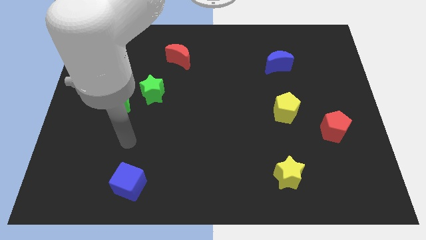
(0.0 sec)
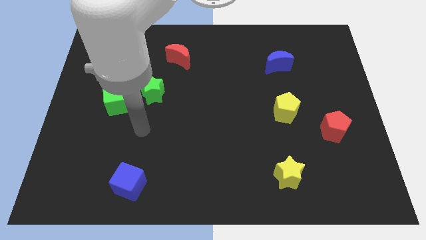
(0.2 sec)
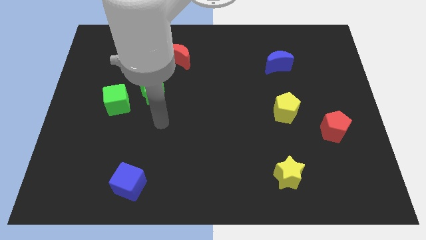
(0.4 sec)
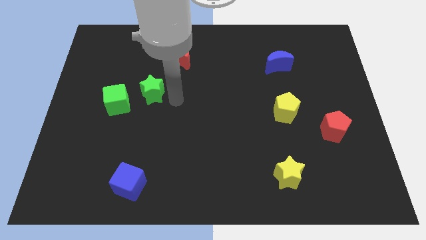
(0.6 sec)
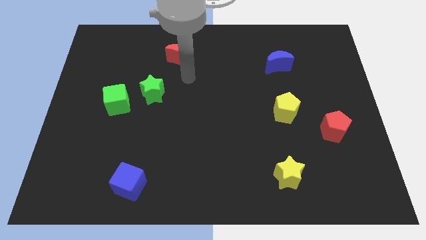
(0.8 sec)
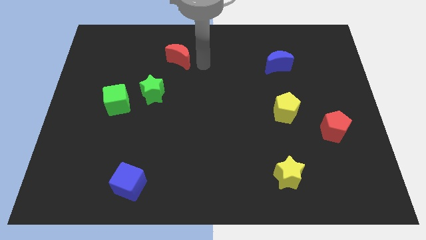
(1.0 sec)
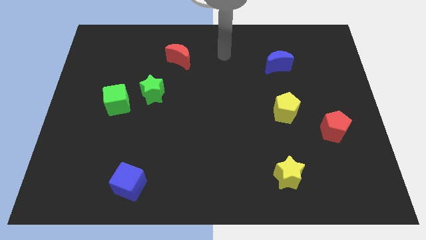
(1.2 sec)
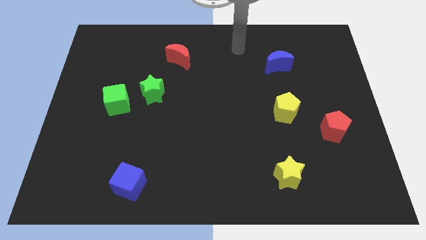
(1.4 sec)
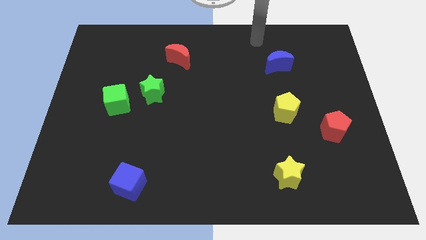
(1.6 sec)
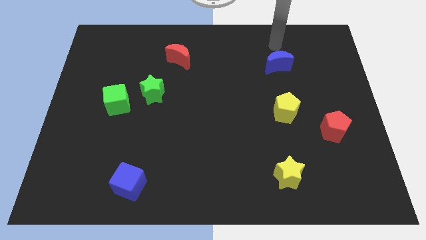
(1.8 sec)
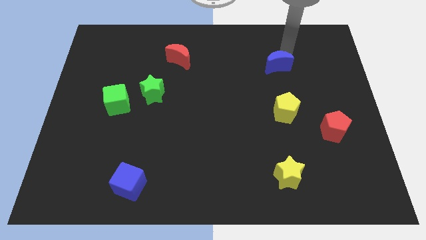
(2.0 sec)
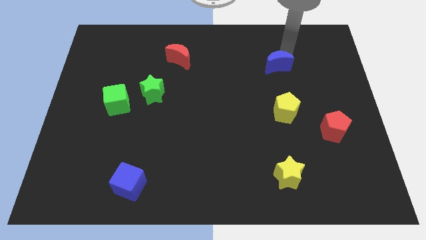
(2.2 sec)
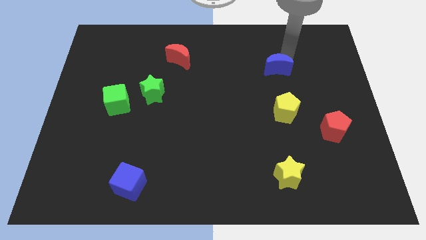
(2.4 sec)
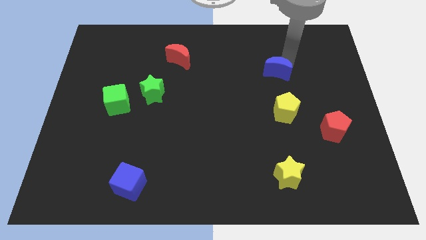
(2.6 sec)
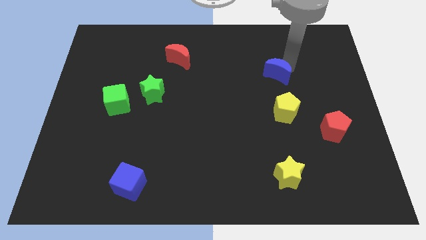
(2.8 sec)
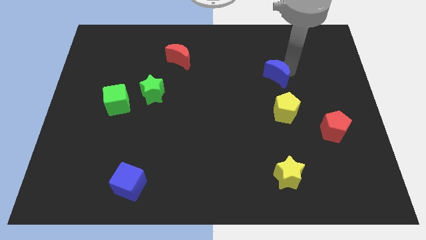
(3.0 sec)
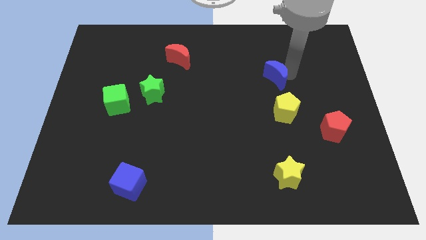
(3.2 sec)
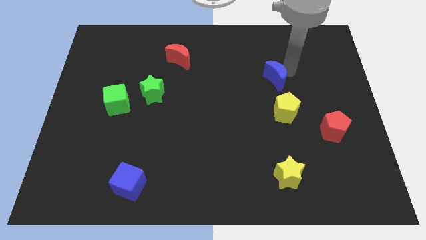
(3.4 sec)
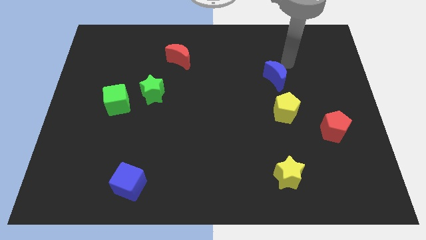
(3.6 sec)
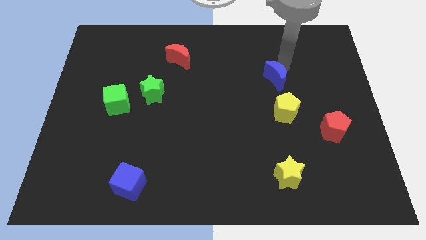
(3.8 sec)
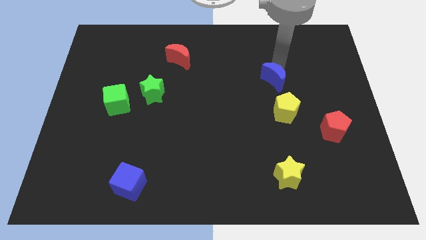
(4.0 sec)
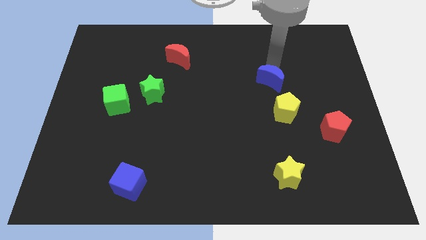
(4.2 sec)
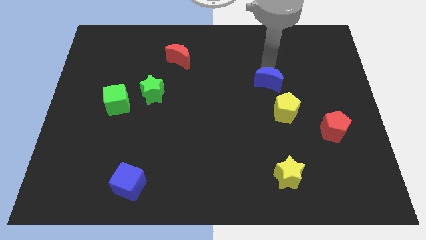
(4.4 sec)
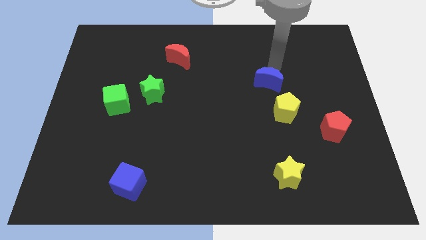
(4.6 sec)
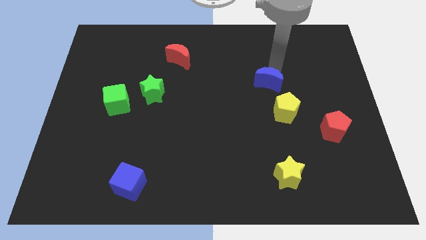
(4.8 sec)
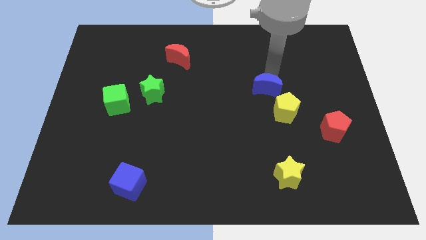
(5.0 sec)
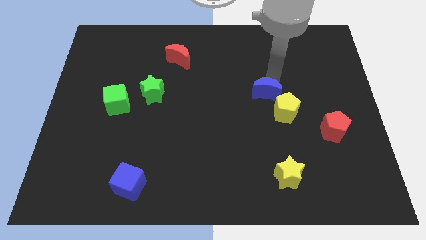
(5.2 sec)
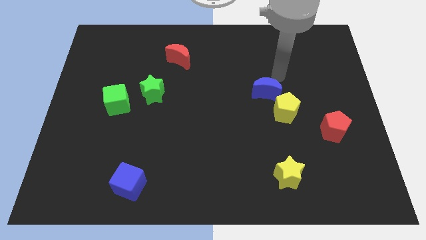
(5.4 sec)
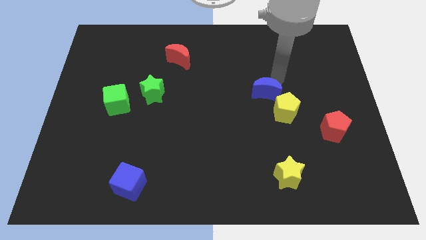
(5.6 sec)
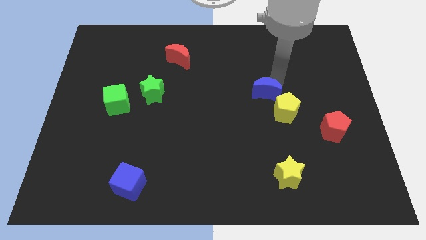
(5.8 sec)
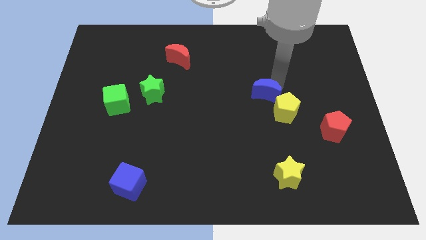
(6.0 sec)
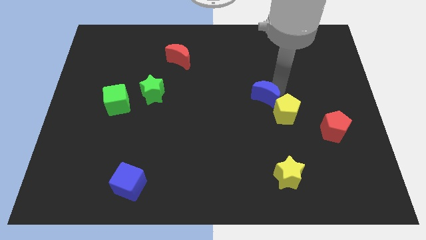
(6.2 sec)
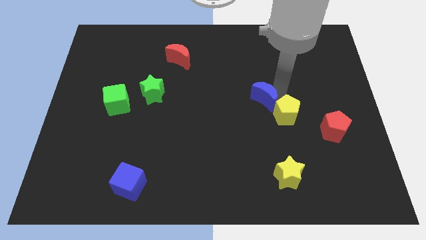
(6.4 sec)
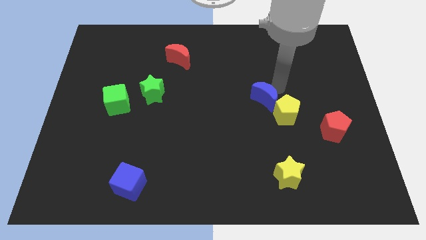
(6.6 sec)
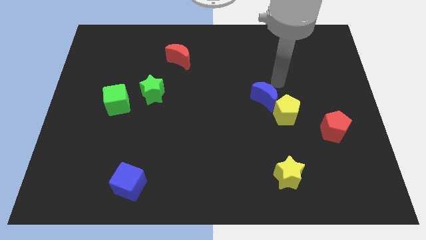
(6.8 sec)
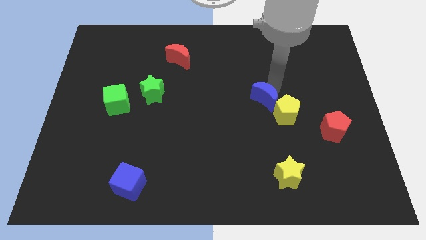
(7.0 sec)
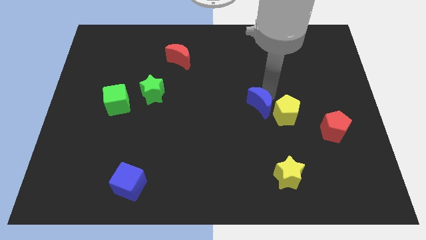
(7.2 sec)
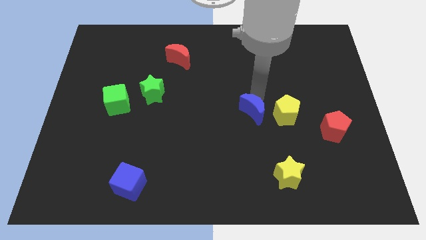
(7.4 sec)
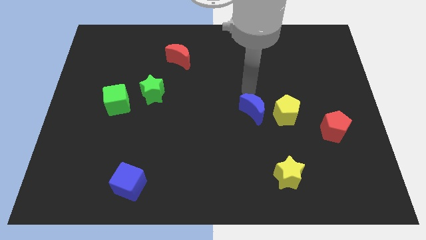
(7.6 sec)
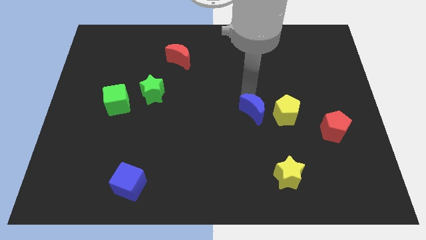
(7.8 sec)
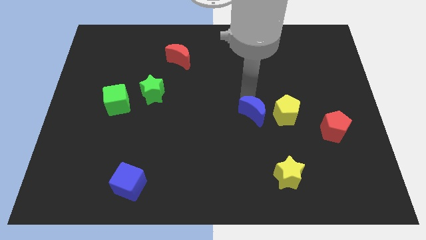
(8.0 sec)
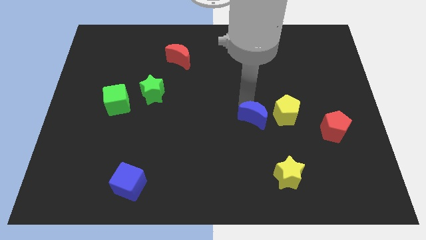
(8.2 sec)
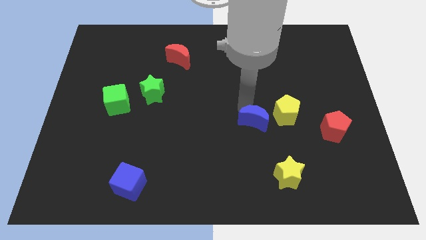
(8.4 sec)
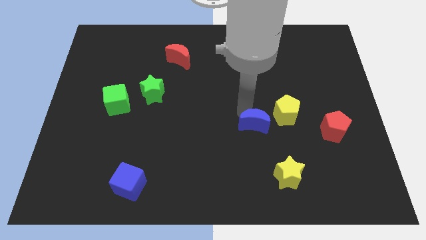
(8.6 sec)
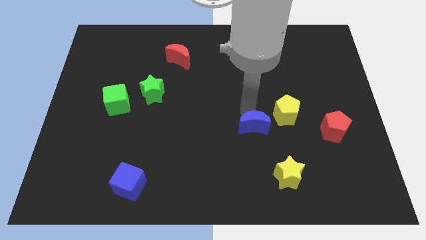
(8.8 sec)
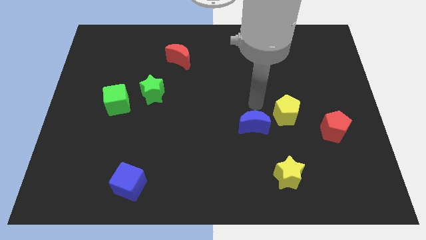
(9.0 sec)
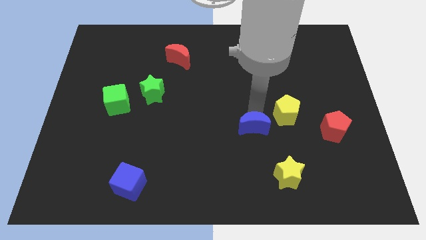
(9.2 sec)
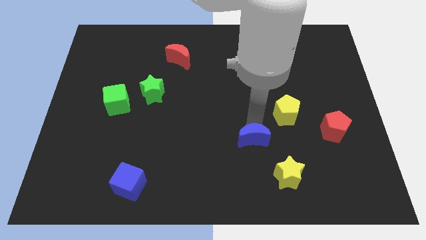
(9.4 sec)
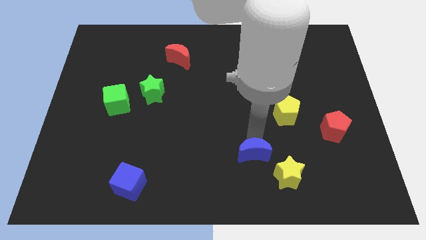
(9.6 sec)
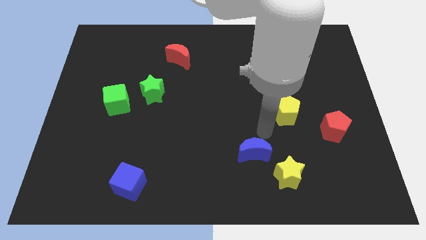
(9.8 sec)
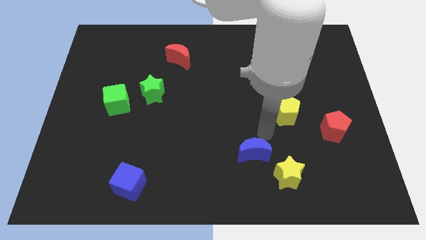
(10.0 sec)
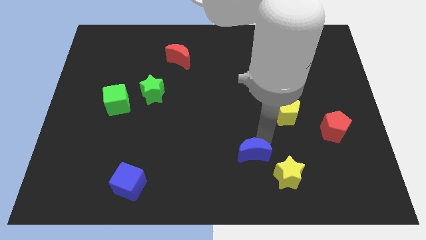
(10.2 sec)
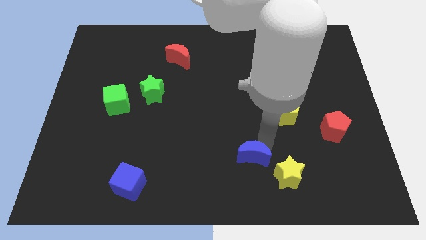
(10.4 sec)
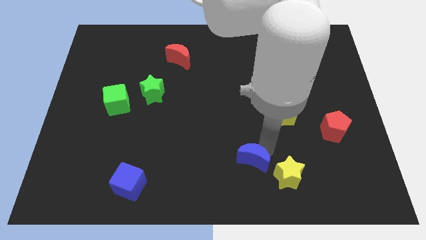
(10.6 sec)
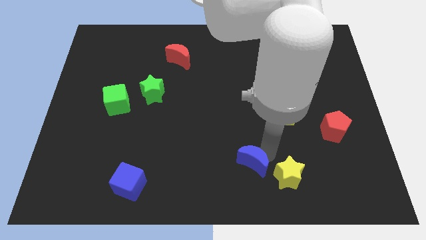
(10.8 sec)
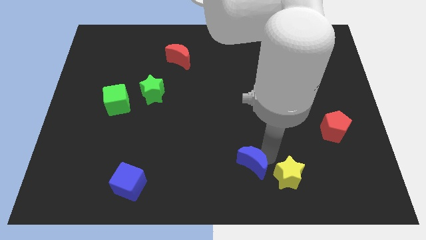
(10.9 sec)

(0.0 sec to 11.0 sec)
push the blue moon to the bottom side

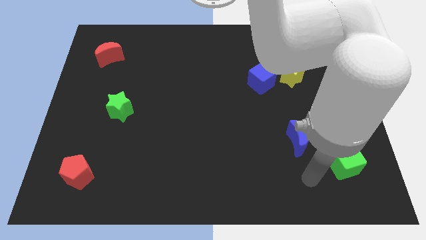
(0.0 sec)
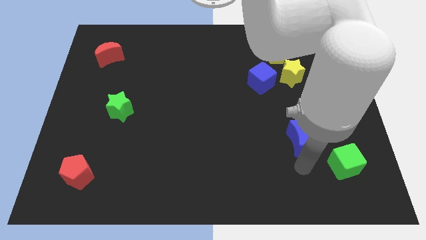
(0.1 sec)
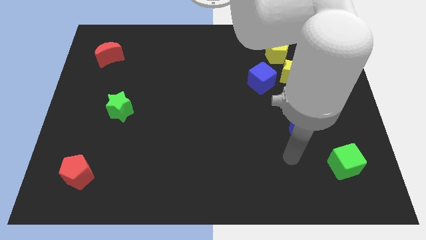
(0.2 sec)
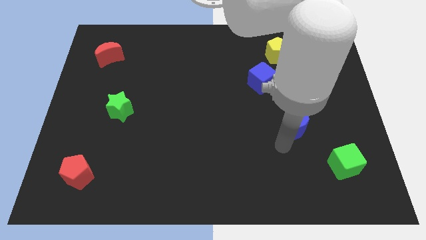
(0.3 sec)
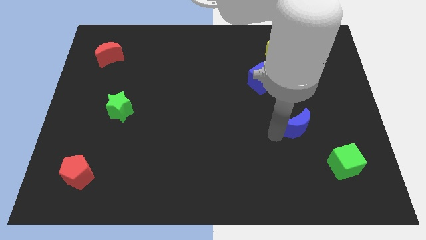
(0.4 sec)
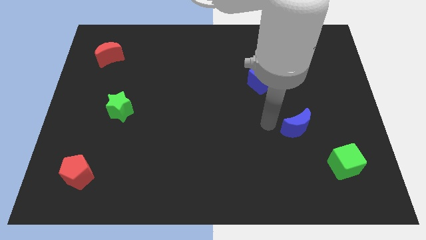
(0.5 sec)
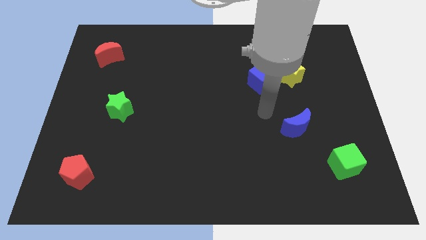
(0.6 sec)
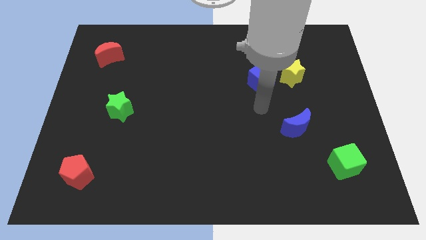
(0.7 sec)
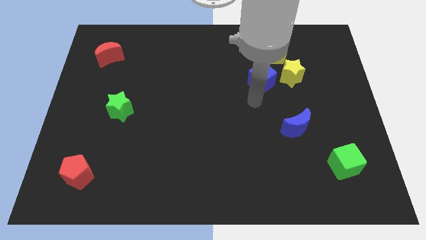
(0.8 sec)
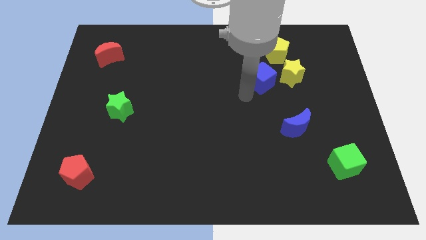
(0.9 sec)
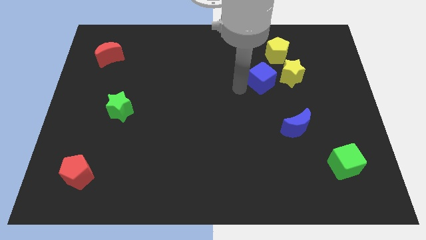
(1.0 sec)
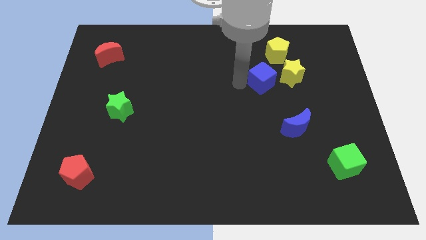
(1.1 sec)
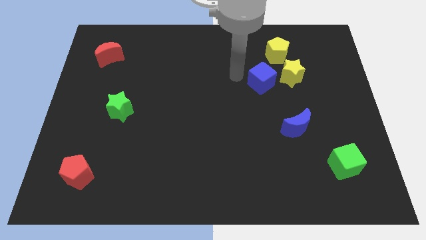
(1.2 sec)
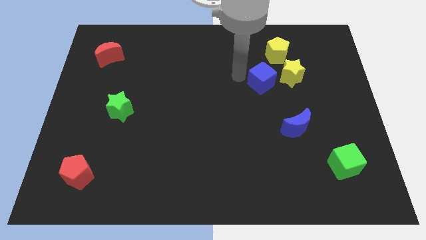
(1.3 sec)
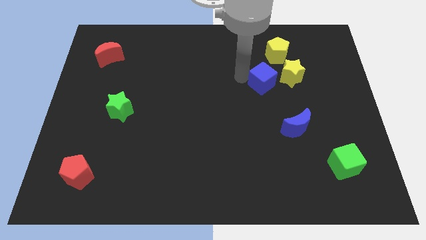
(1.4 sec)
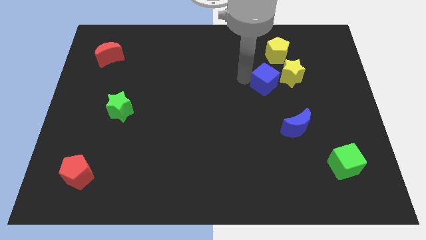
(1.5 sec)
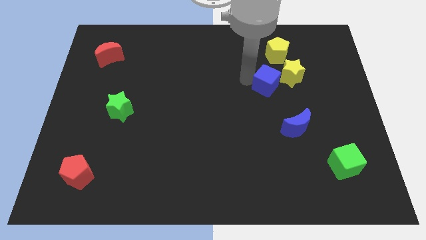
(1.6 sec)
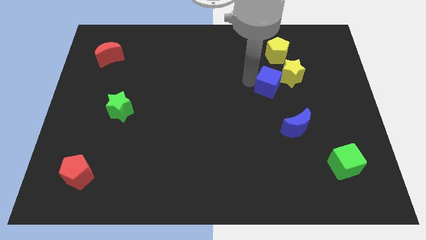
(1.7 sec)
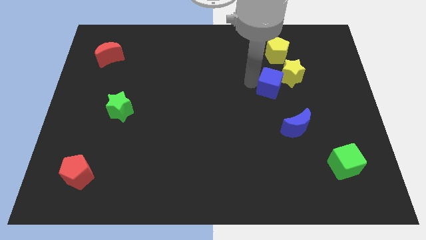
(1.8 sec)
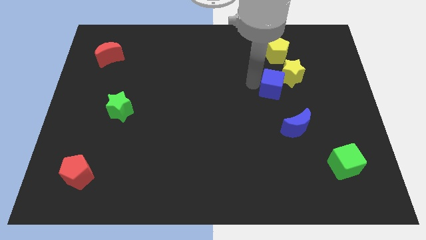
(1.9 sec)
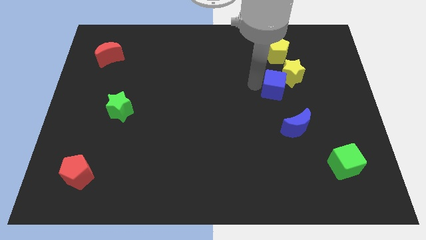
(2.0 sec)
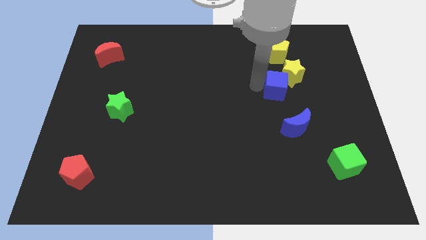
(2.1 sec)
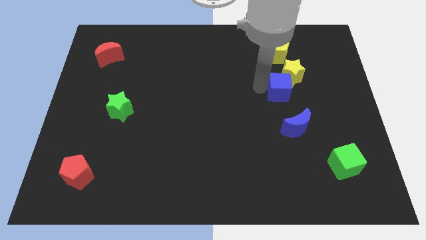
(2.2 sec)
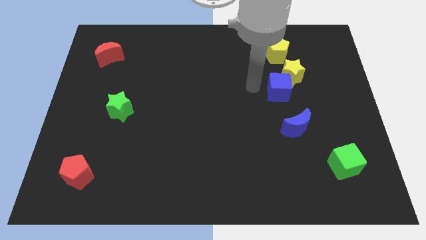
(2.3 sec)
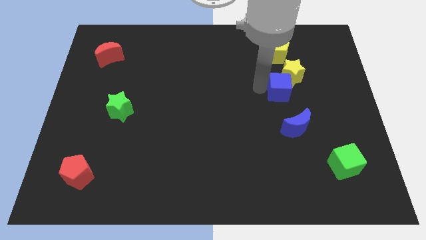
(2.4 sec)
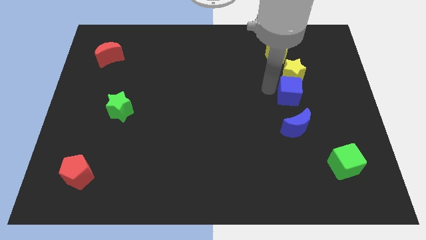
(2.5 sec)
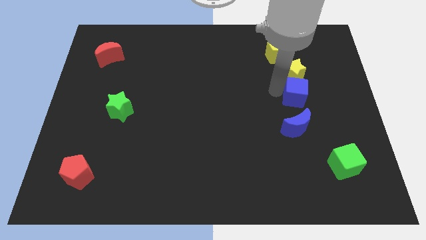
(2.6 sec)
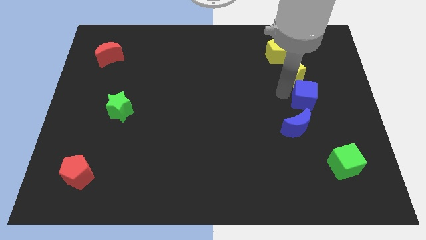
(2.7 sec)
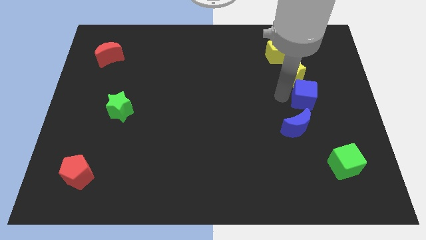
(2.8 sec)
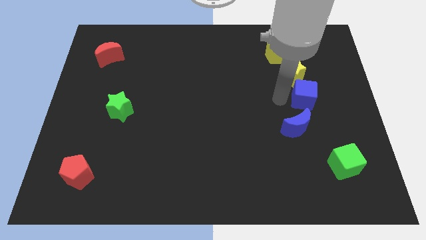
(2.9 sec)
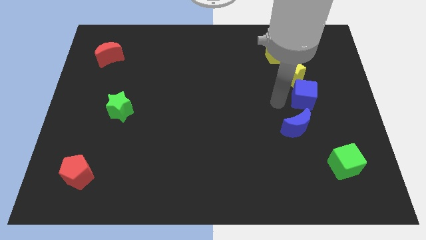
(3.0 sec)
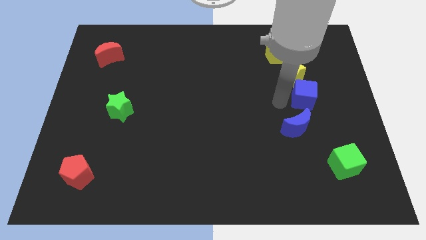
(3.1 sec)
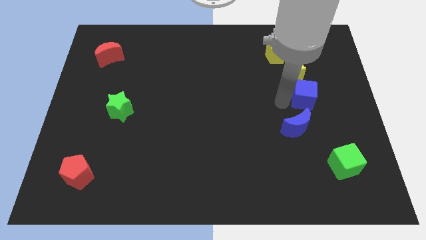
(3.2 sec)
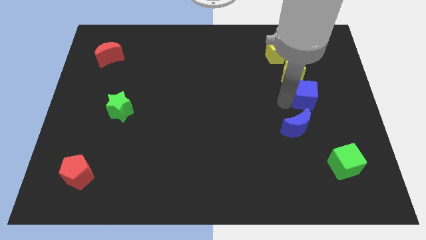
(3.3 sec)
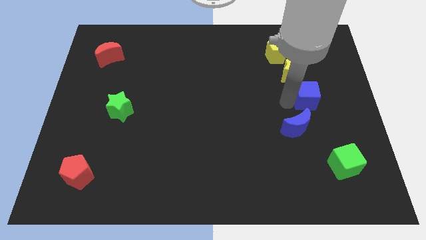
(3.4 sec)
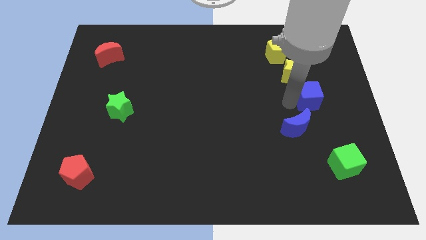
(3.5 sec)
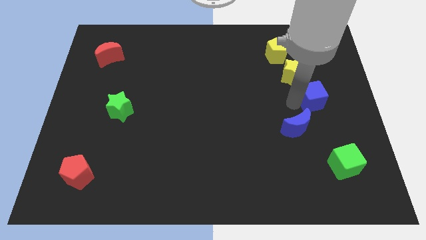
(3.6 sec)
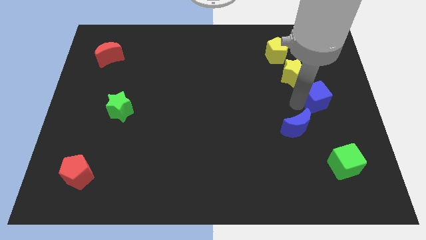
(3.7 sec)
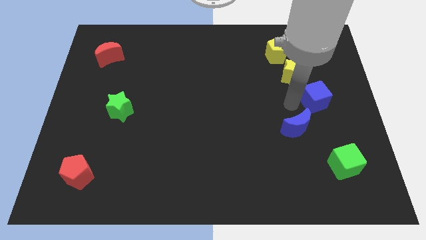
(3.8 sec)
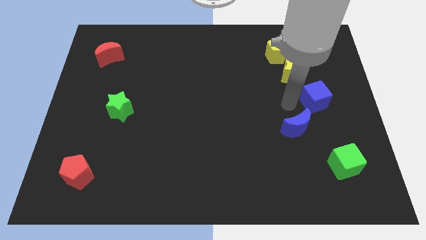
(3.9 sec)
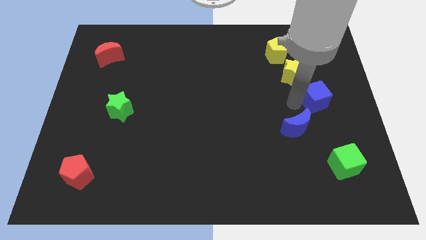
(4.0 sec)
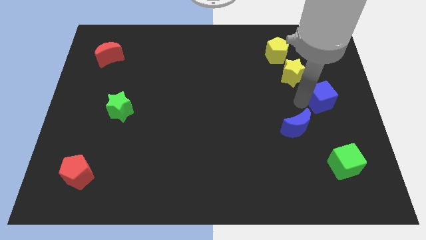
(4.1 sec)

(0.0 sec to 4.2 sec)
move the blue cube to the right side
